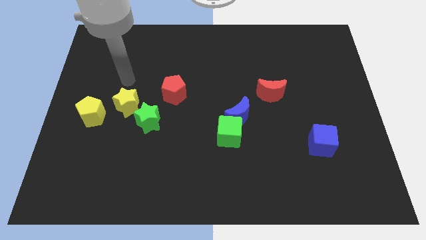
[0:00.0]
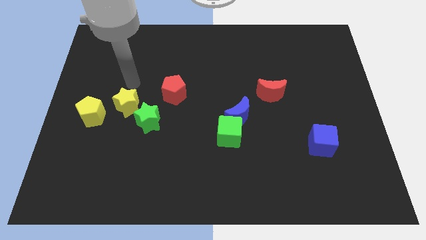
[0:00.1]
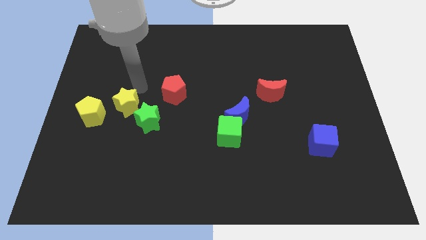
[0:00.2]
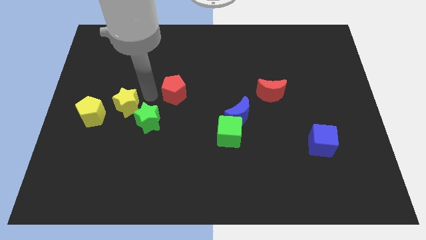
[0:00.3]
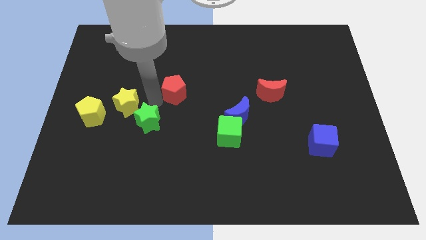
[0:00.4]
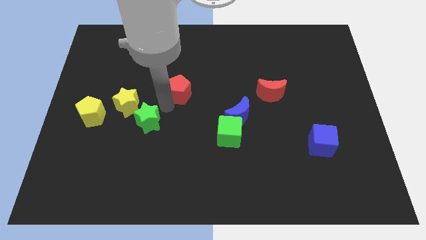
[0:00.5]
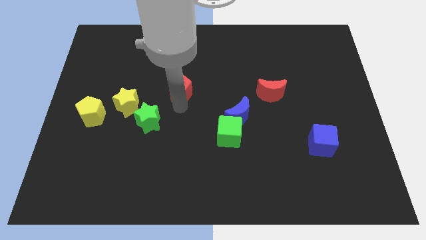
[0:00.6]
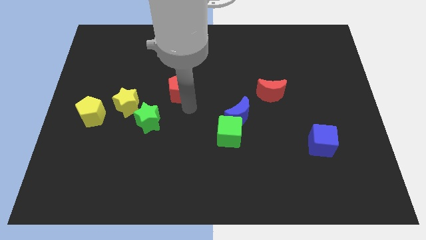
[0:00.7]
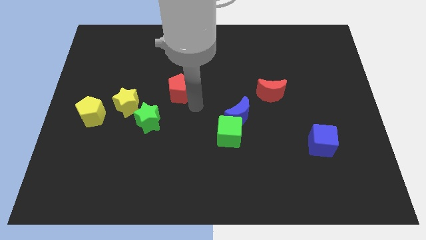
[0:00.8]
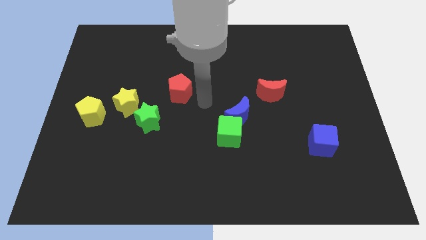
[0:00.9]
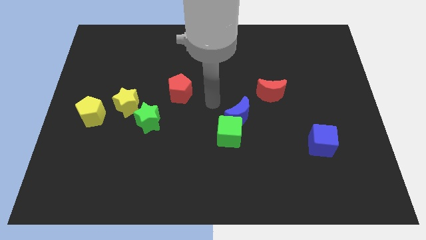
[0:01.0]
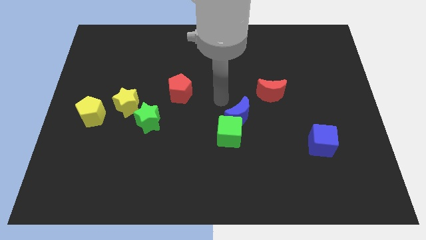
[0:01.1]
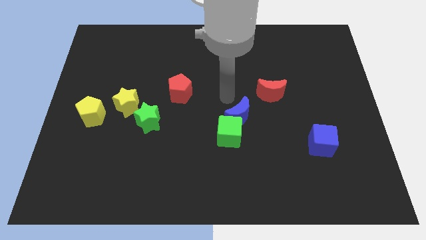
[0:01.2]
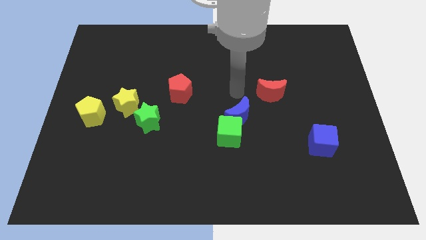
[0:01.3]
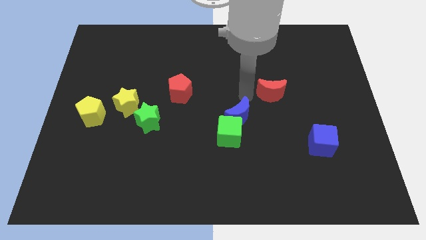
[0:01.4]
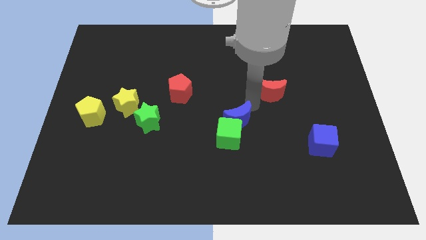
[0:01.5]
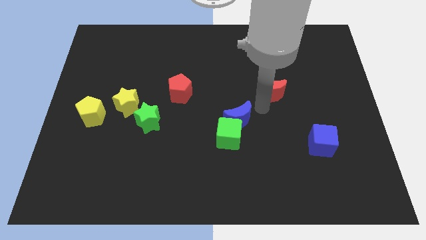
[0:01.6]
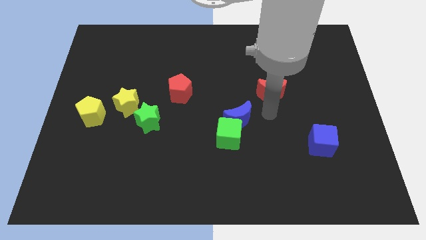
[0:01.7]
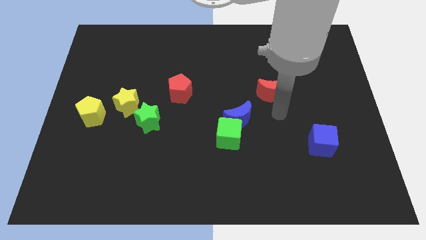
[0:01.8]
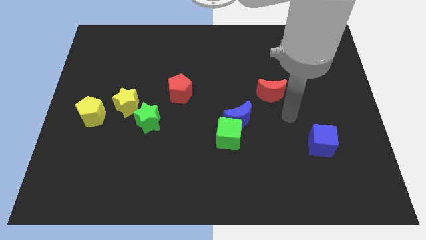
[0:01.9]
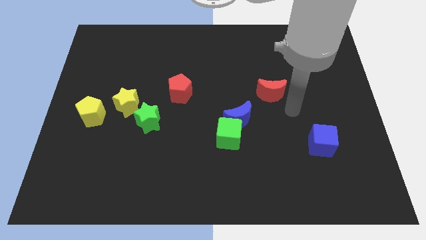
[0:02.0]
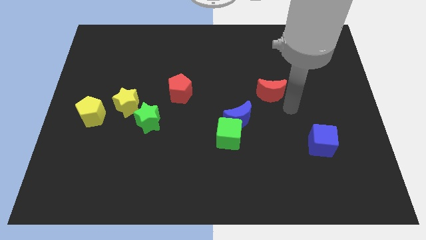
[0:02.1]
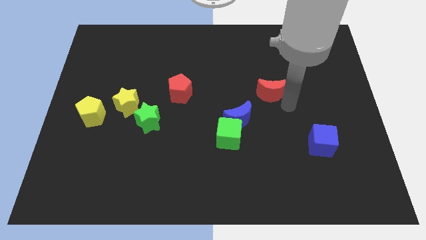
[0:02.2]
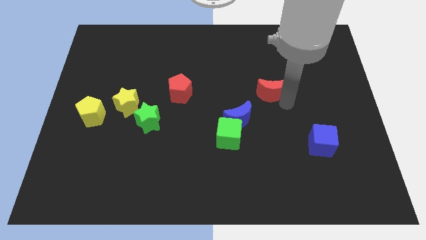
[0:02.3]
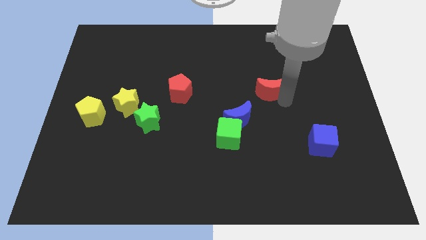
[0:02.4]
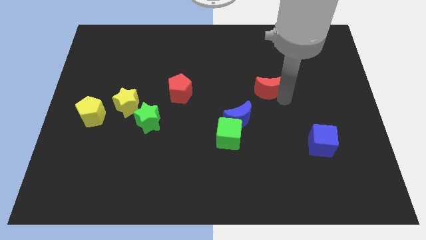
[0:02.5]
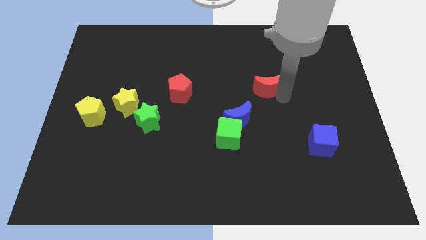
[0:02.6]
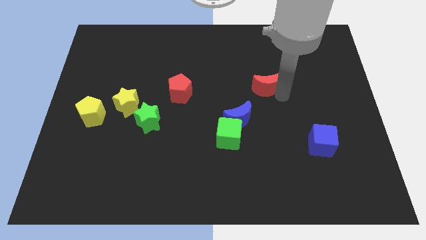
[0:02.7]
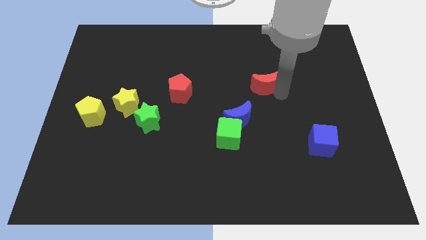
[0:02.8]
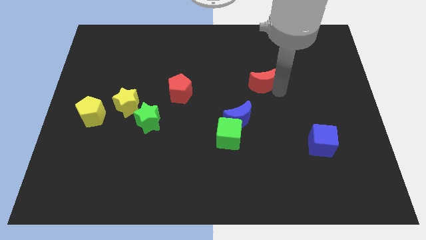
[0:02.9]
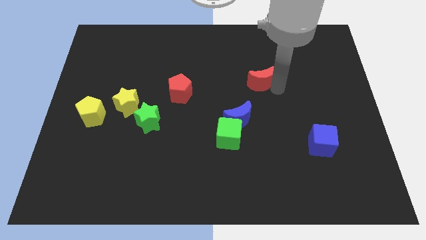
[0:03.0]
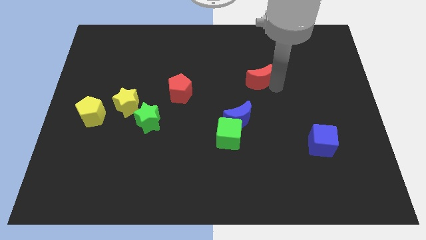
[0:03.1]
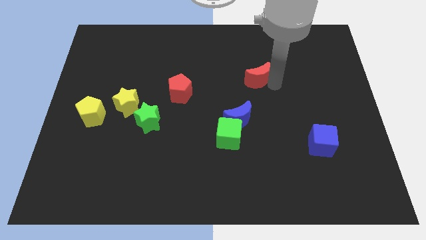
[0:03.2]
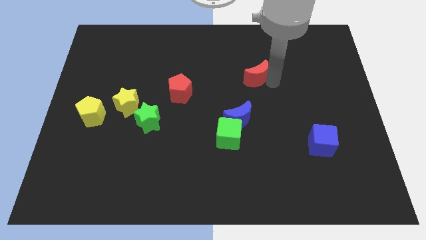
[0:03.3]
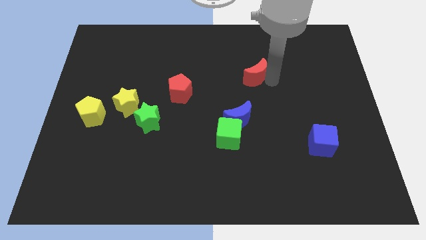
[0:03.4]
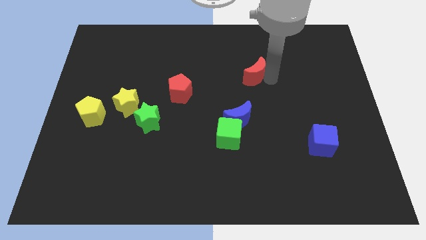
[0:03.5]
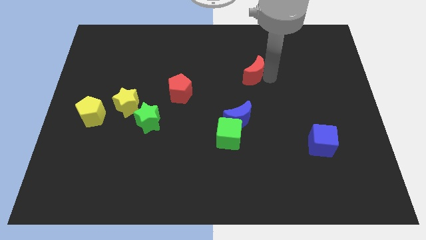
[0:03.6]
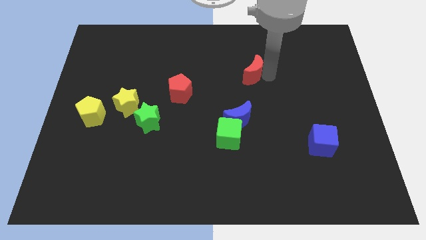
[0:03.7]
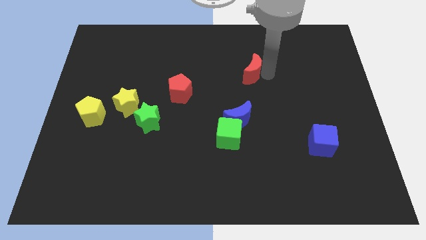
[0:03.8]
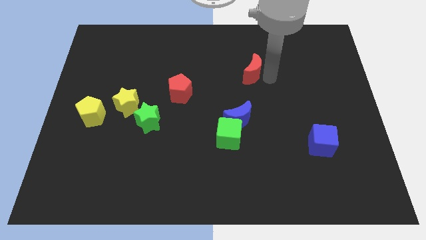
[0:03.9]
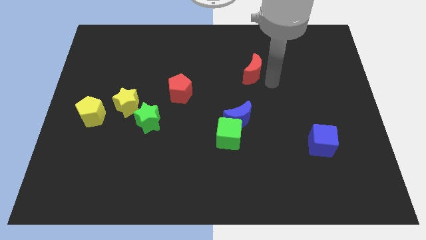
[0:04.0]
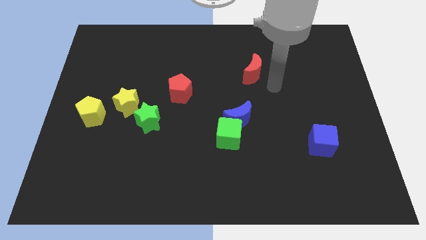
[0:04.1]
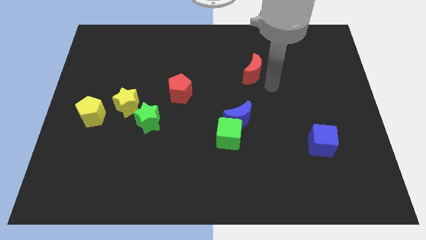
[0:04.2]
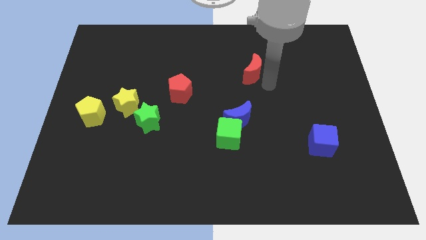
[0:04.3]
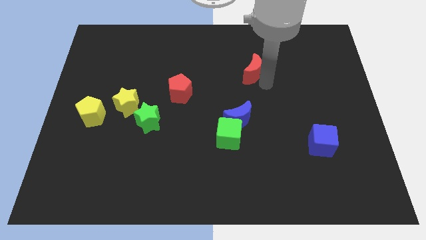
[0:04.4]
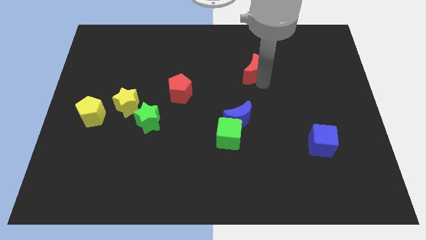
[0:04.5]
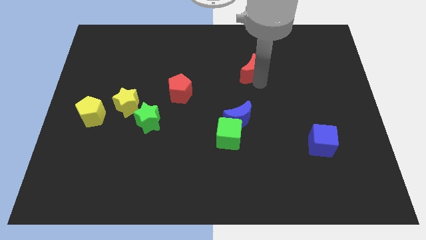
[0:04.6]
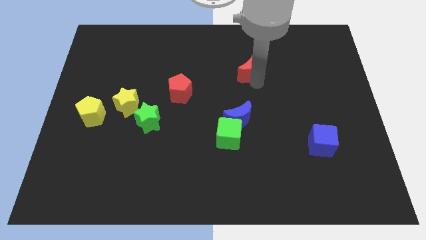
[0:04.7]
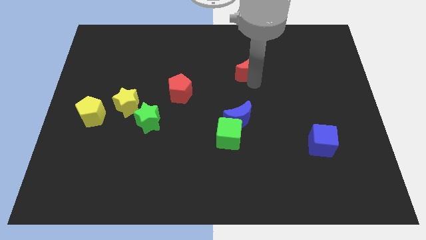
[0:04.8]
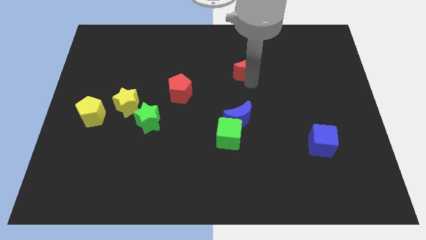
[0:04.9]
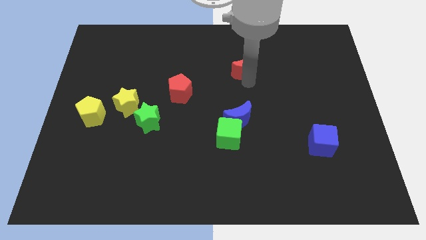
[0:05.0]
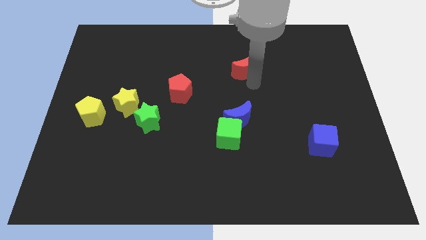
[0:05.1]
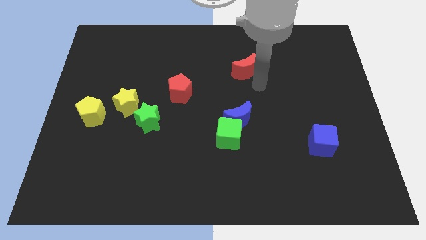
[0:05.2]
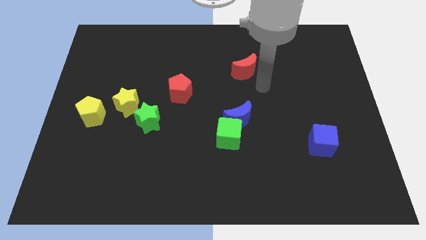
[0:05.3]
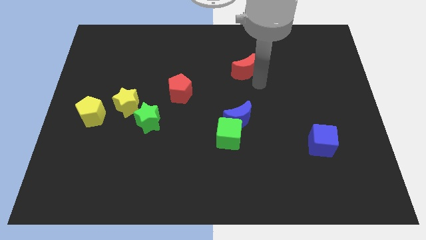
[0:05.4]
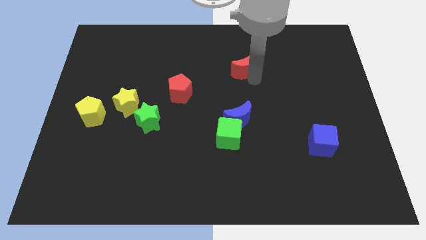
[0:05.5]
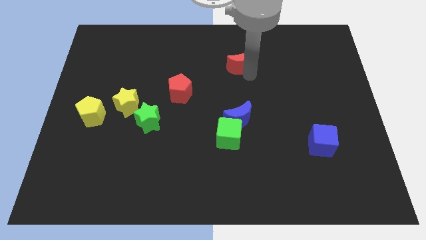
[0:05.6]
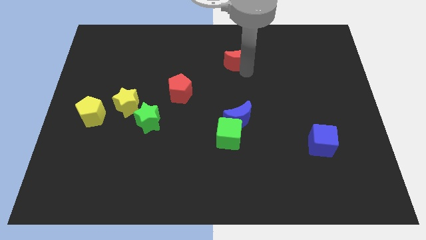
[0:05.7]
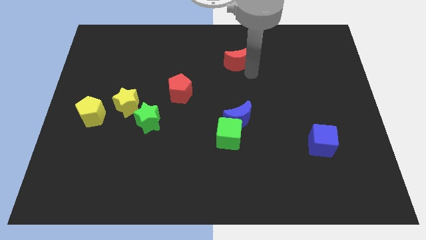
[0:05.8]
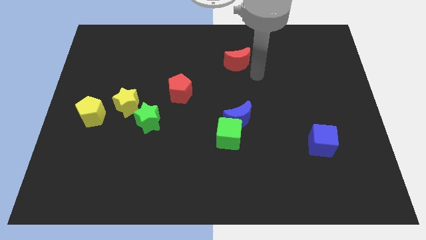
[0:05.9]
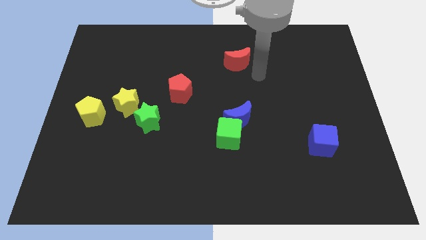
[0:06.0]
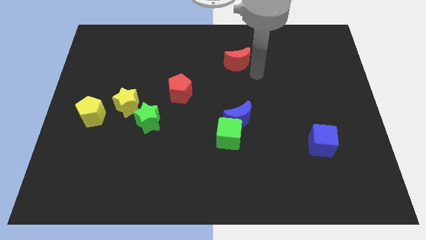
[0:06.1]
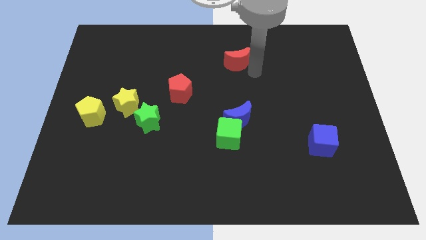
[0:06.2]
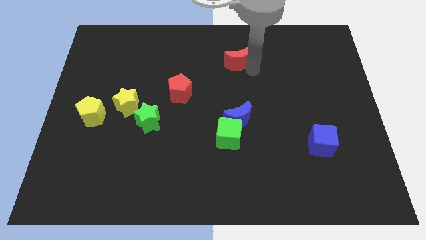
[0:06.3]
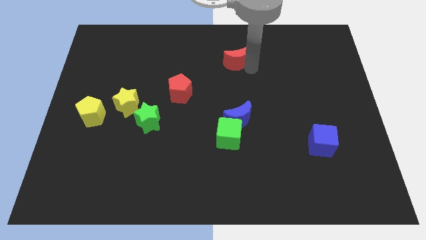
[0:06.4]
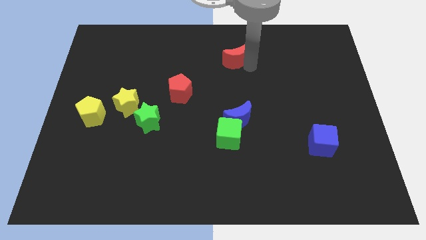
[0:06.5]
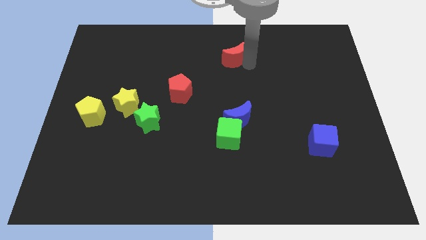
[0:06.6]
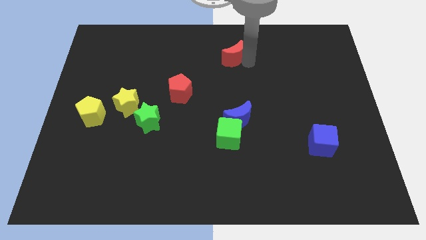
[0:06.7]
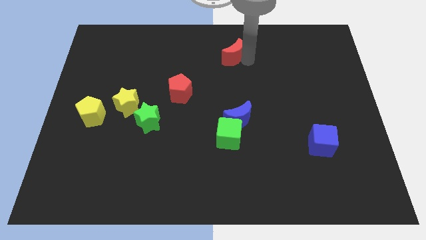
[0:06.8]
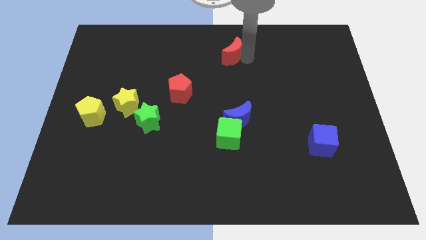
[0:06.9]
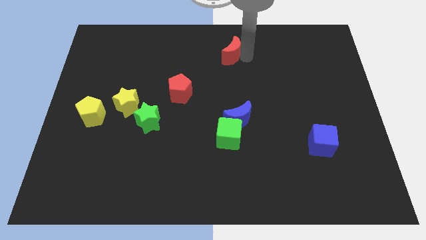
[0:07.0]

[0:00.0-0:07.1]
put the red moon to the towards your base
